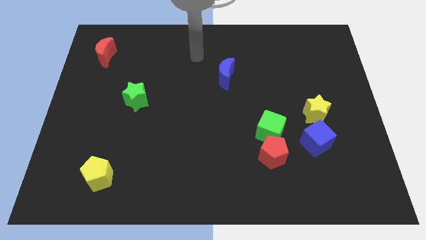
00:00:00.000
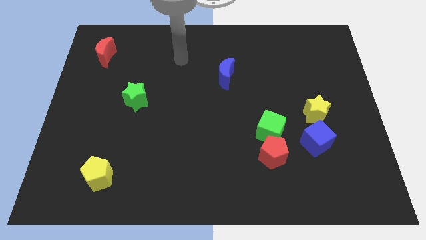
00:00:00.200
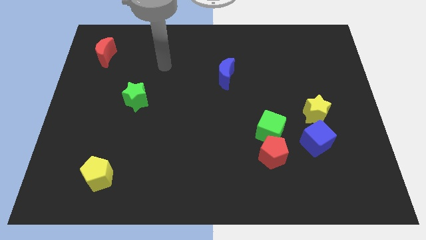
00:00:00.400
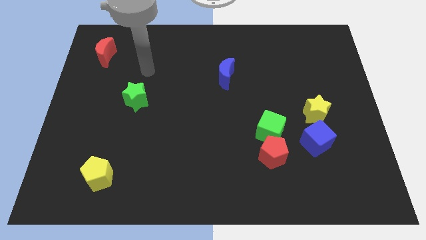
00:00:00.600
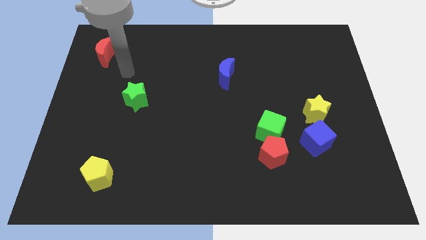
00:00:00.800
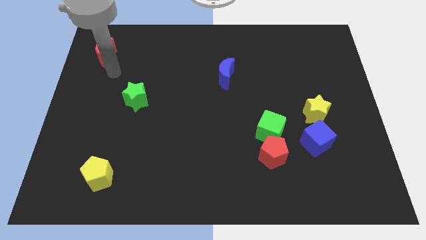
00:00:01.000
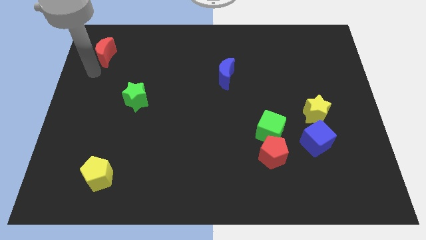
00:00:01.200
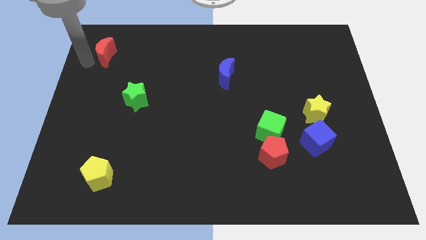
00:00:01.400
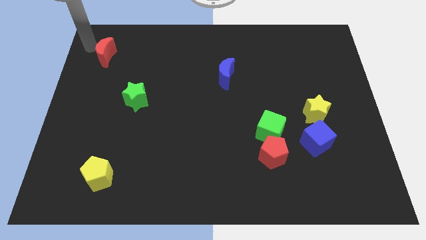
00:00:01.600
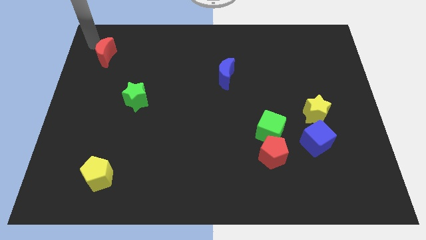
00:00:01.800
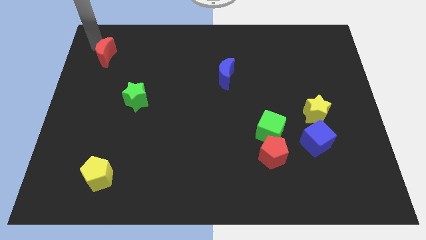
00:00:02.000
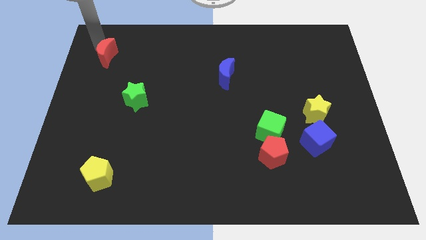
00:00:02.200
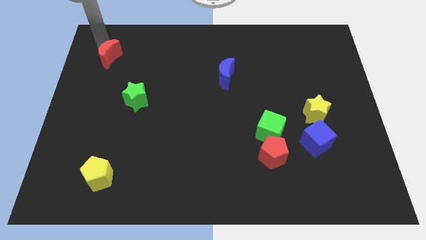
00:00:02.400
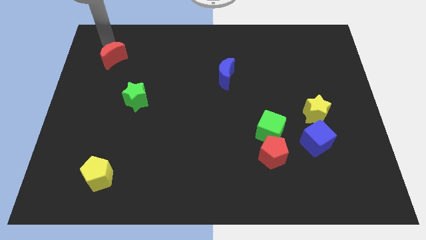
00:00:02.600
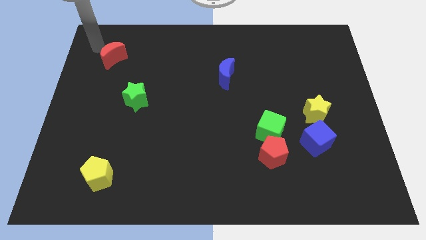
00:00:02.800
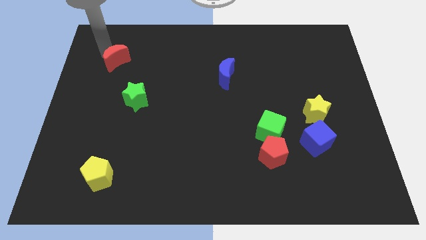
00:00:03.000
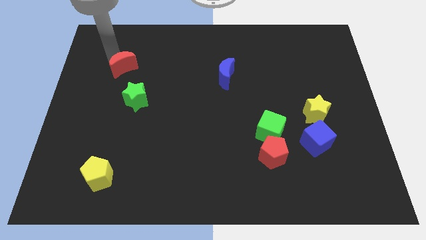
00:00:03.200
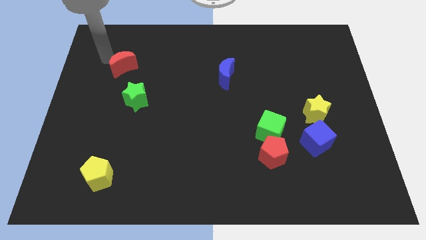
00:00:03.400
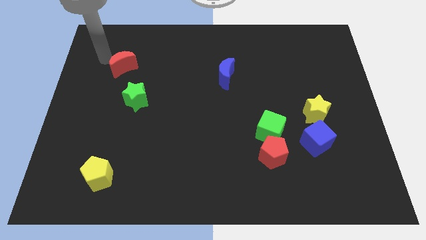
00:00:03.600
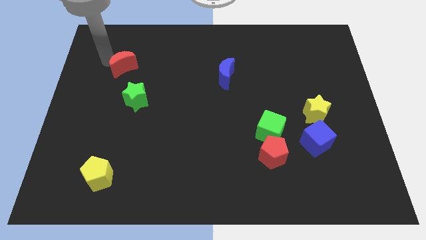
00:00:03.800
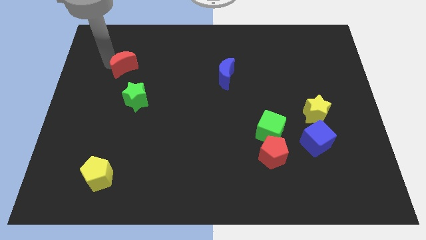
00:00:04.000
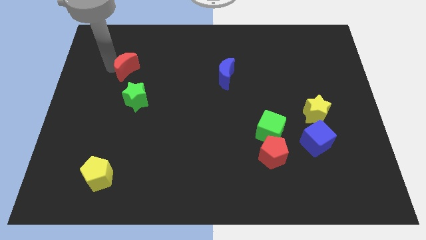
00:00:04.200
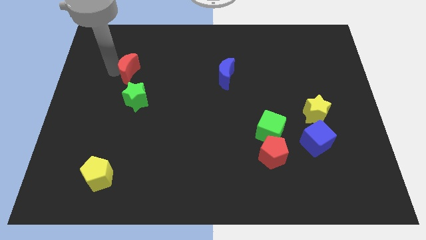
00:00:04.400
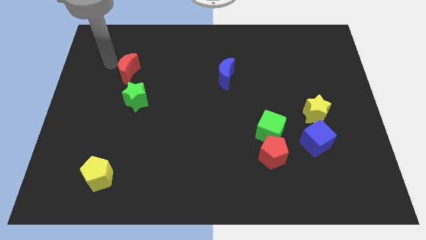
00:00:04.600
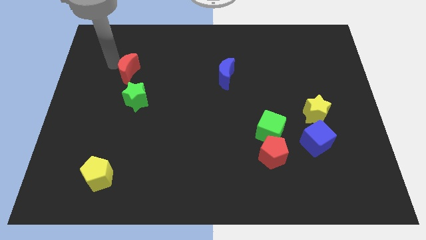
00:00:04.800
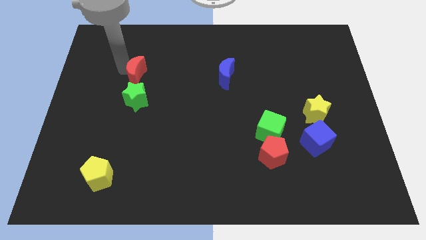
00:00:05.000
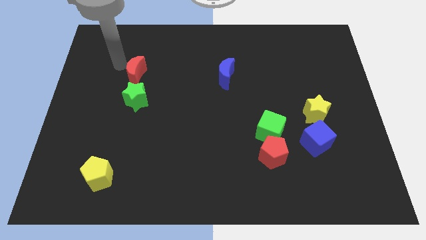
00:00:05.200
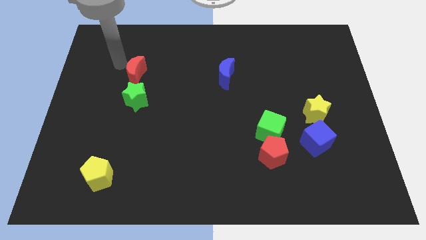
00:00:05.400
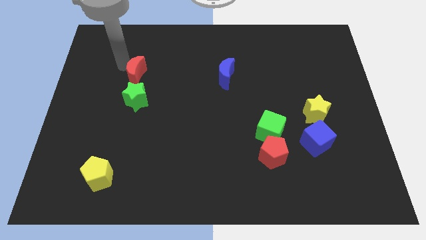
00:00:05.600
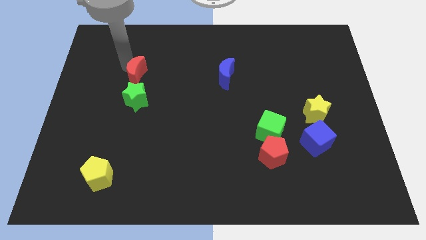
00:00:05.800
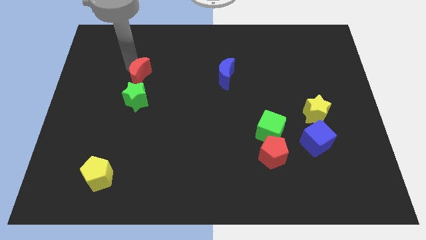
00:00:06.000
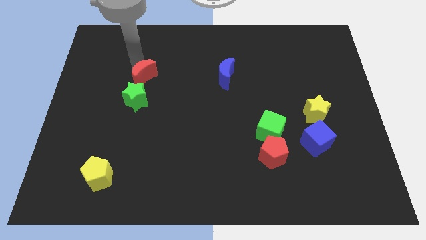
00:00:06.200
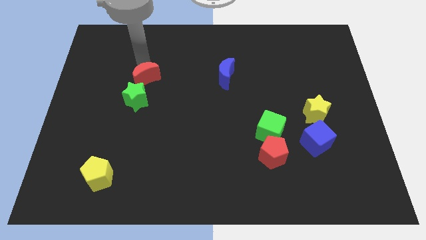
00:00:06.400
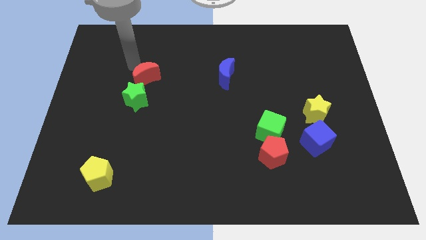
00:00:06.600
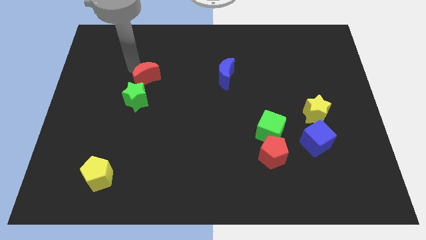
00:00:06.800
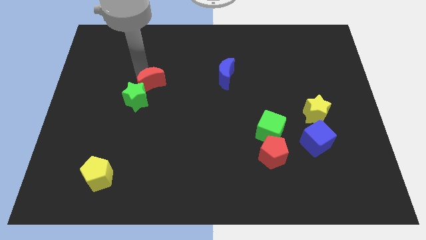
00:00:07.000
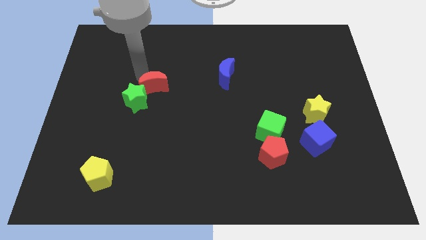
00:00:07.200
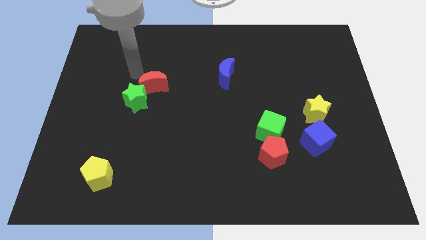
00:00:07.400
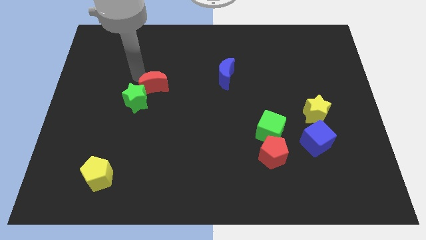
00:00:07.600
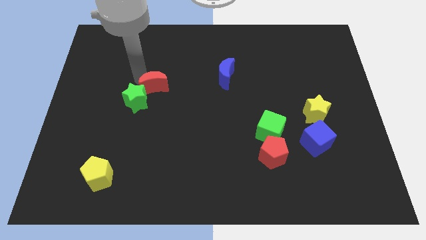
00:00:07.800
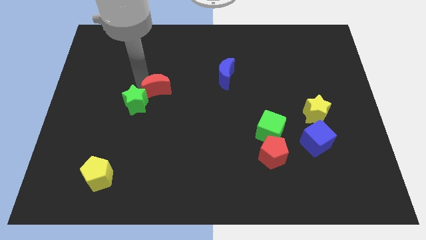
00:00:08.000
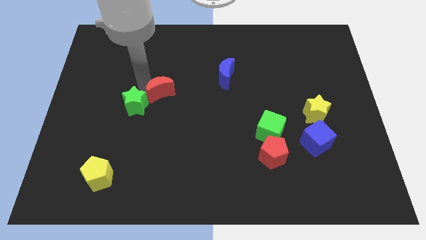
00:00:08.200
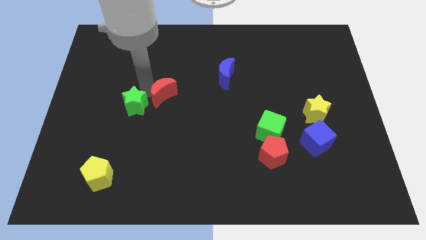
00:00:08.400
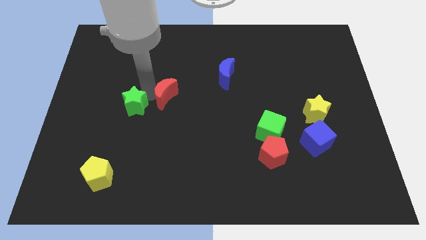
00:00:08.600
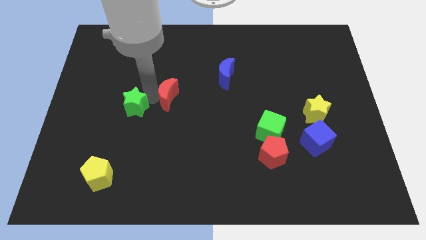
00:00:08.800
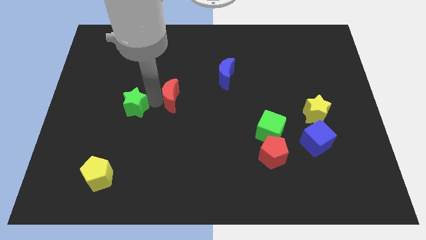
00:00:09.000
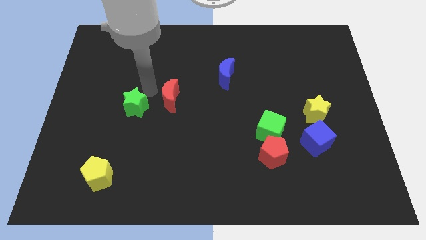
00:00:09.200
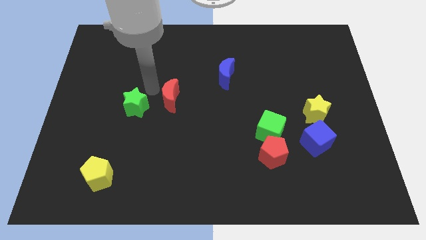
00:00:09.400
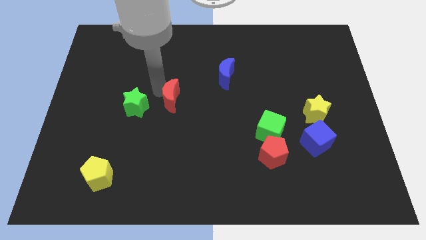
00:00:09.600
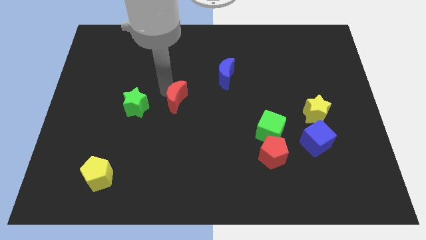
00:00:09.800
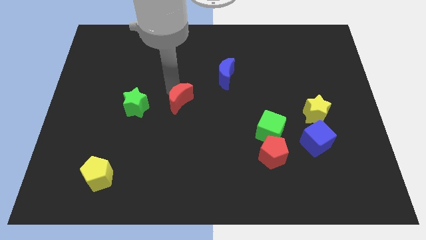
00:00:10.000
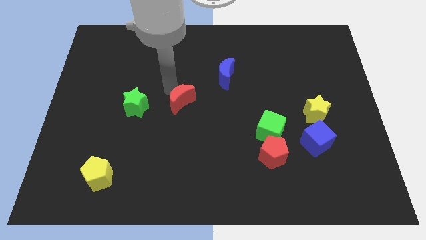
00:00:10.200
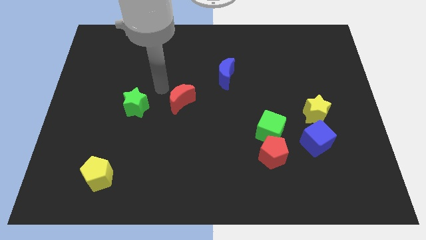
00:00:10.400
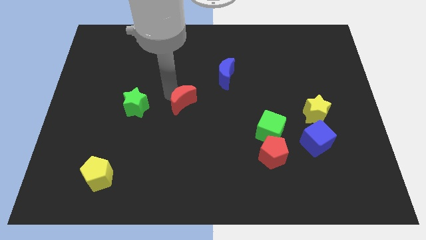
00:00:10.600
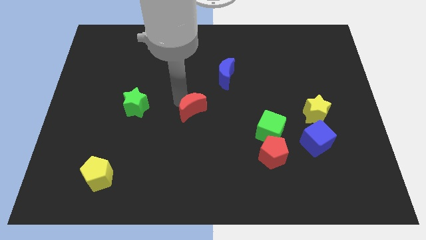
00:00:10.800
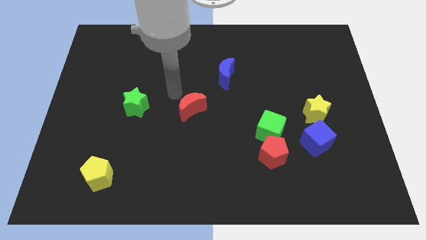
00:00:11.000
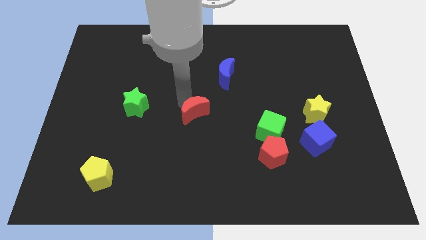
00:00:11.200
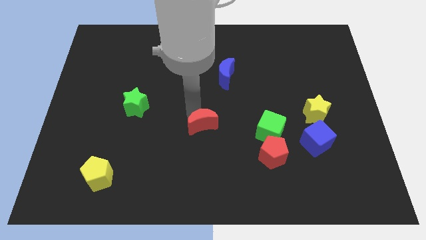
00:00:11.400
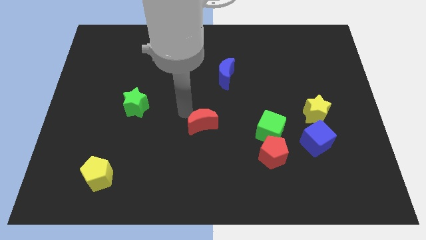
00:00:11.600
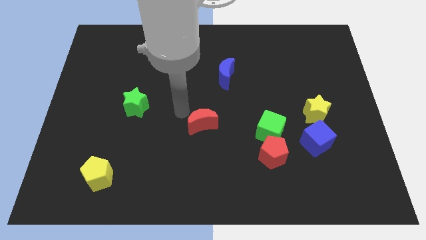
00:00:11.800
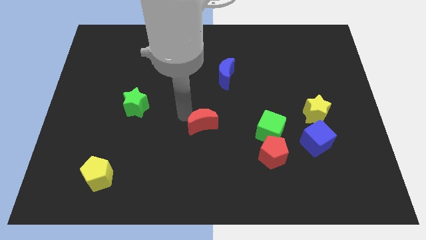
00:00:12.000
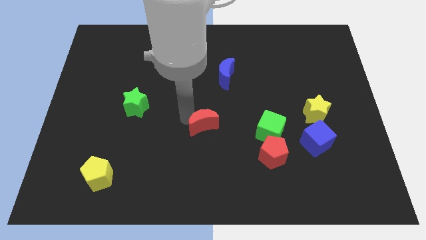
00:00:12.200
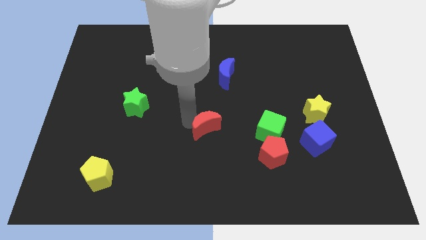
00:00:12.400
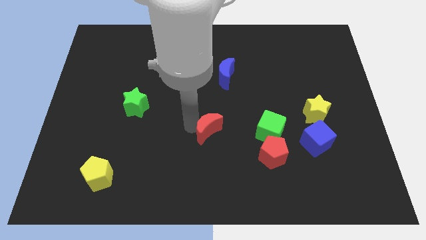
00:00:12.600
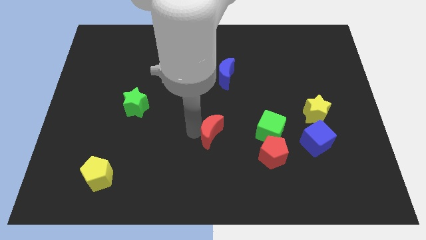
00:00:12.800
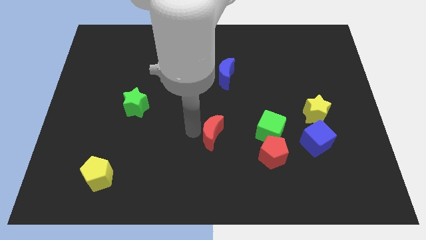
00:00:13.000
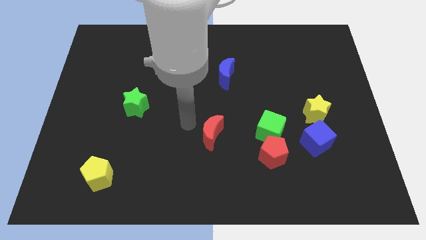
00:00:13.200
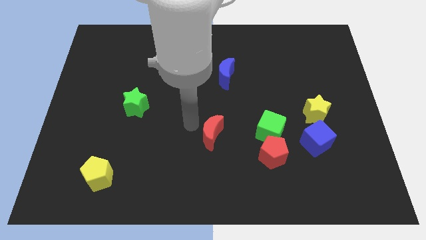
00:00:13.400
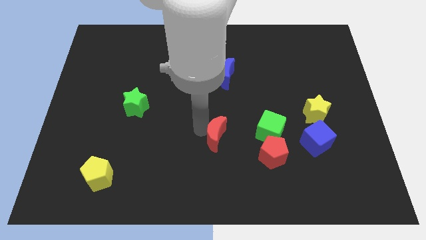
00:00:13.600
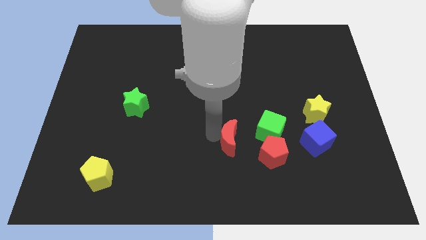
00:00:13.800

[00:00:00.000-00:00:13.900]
slide the red moon to the bottom left side of the green cube
